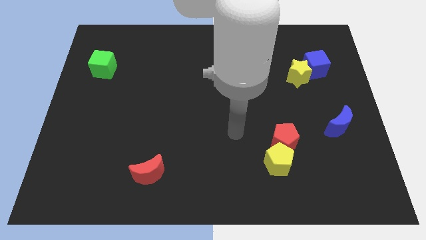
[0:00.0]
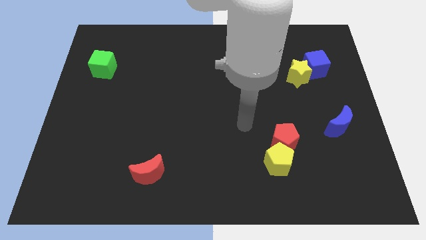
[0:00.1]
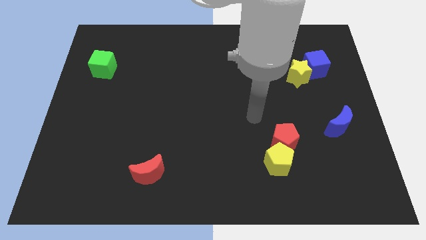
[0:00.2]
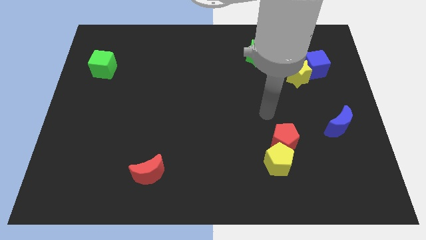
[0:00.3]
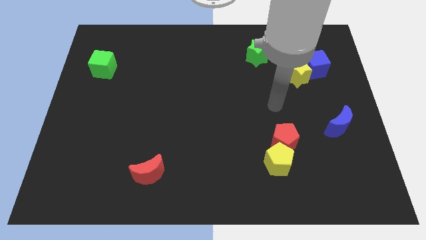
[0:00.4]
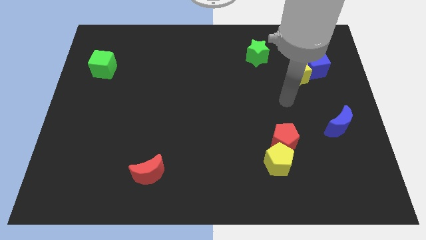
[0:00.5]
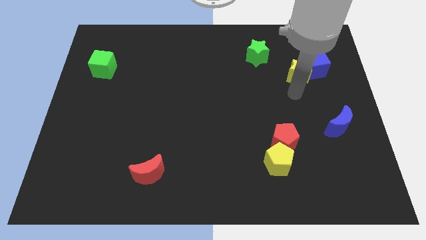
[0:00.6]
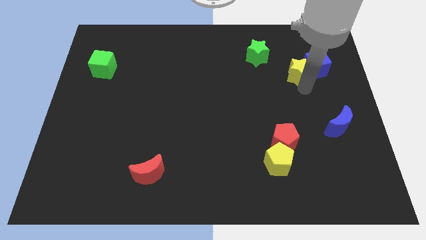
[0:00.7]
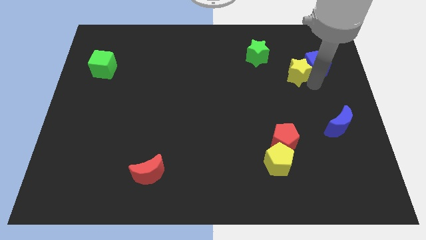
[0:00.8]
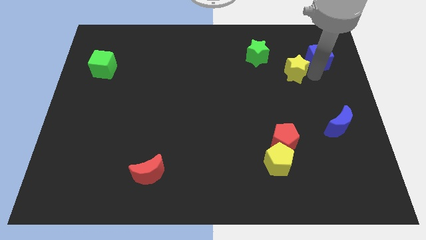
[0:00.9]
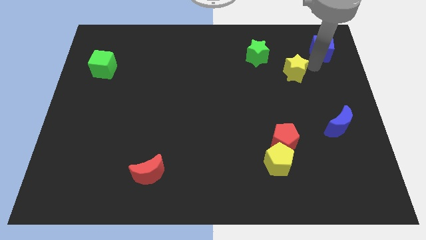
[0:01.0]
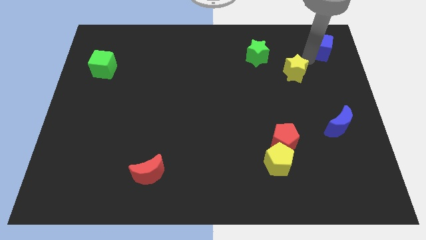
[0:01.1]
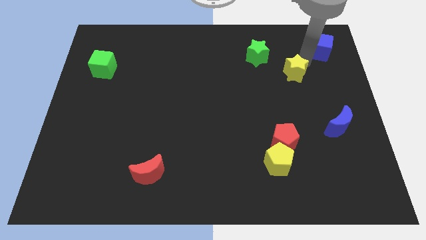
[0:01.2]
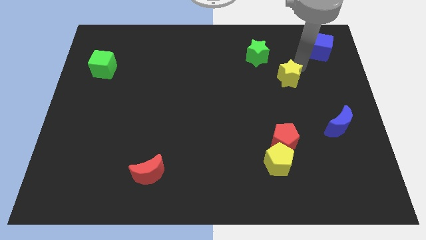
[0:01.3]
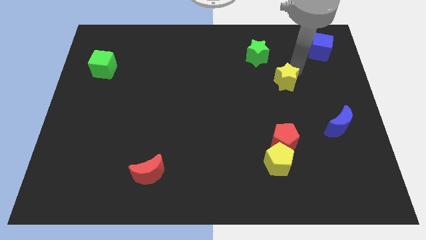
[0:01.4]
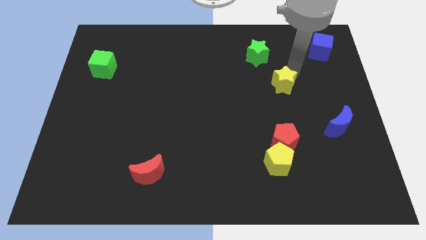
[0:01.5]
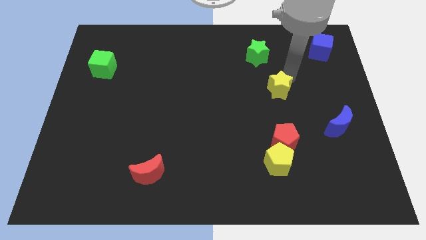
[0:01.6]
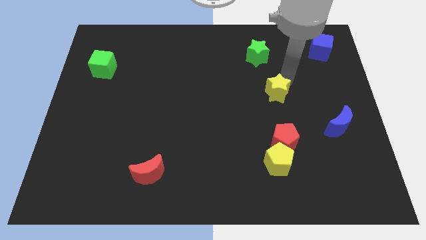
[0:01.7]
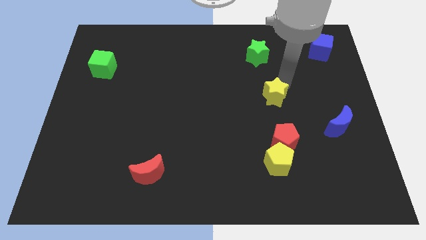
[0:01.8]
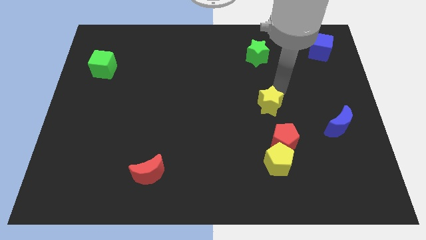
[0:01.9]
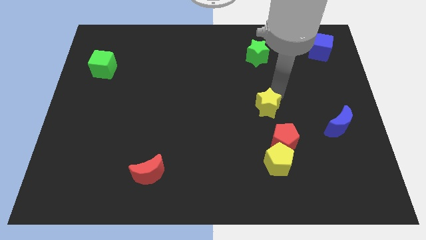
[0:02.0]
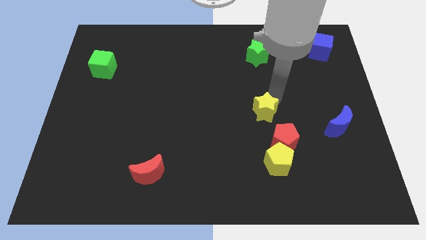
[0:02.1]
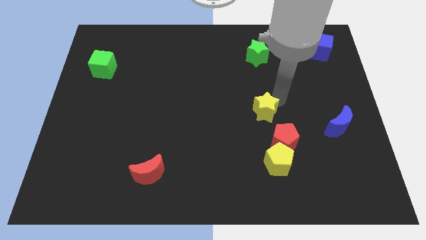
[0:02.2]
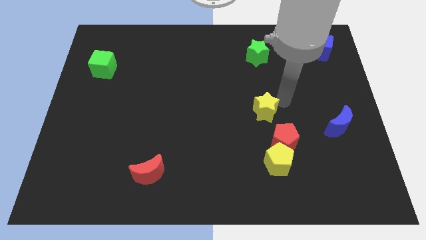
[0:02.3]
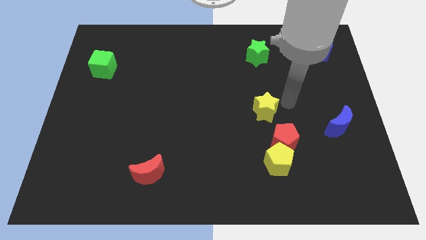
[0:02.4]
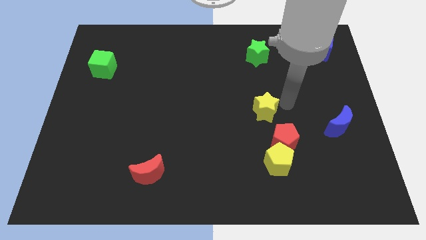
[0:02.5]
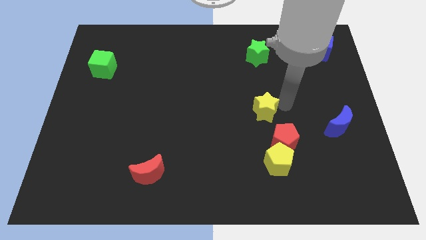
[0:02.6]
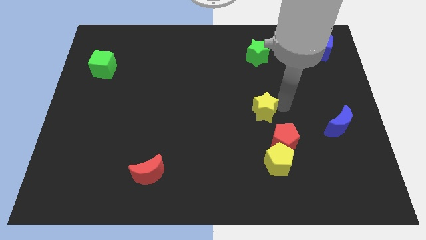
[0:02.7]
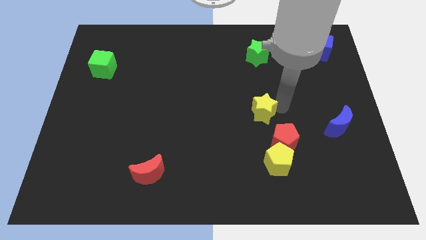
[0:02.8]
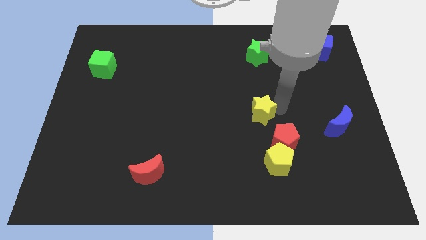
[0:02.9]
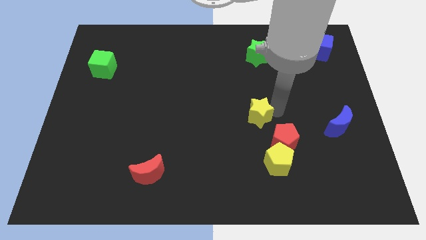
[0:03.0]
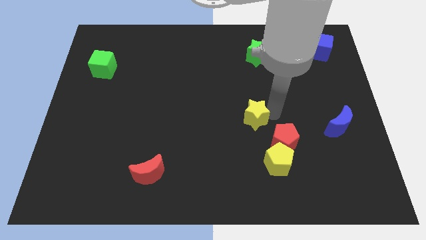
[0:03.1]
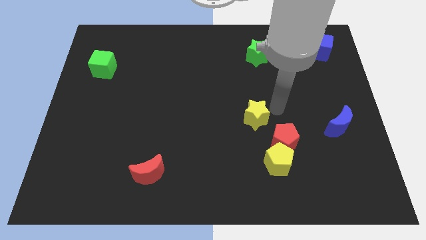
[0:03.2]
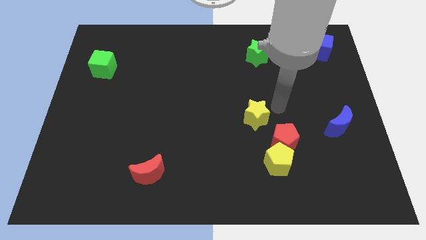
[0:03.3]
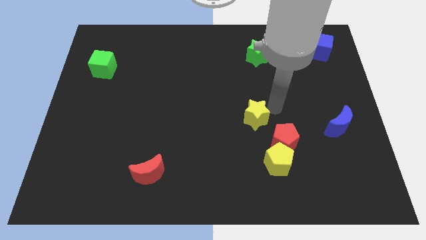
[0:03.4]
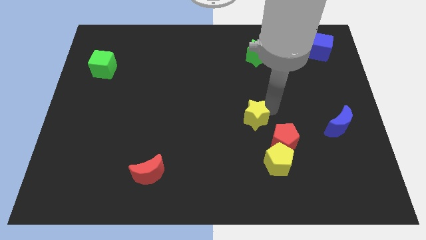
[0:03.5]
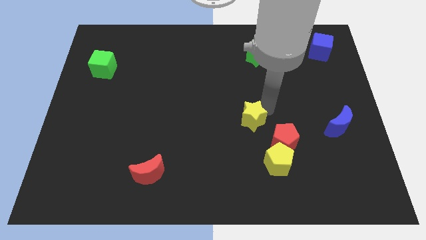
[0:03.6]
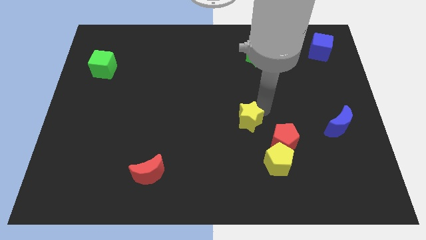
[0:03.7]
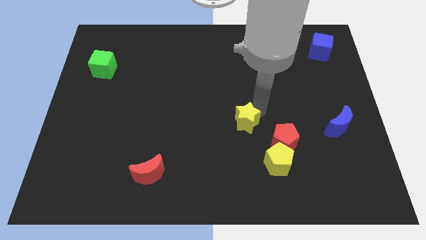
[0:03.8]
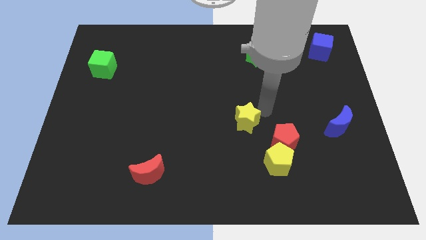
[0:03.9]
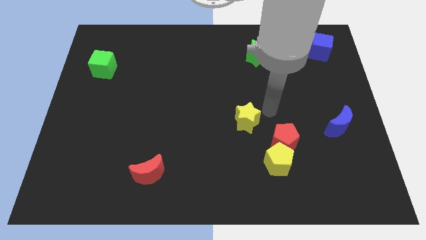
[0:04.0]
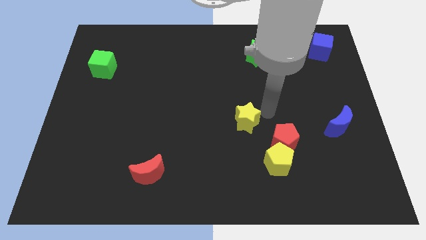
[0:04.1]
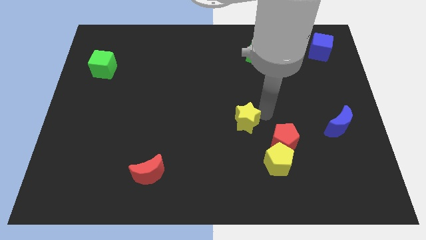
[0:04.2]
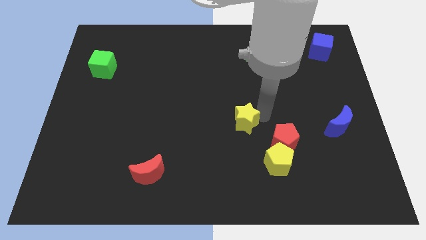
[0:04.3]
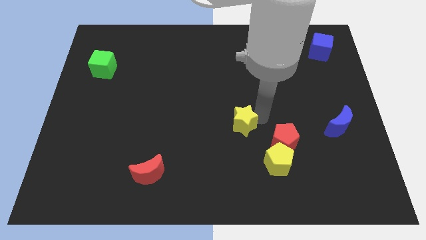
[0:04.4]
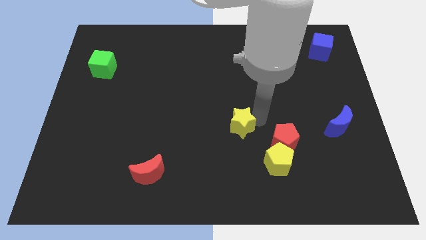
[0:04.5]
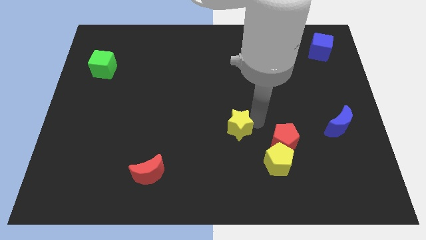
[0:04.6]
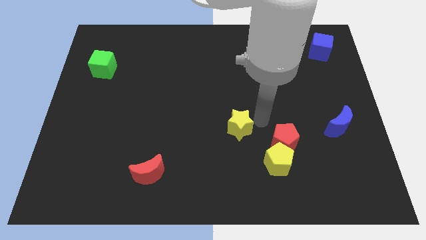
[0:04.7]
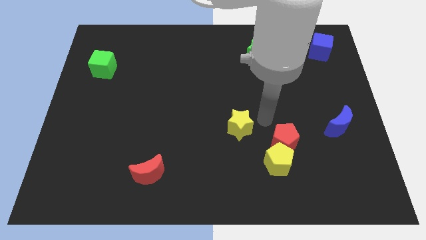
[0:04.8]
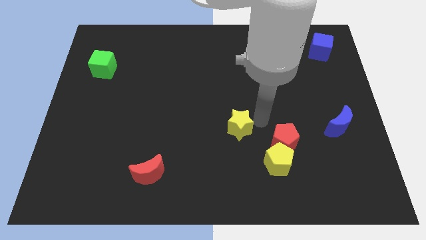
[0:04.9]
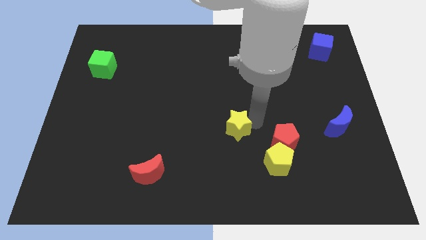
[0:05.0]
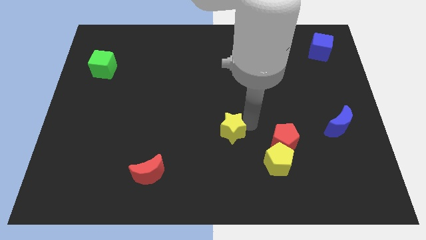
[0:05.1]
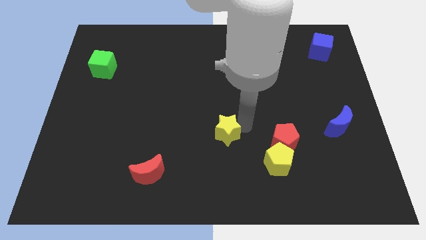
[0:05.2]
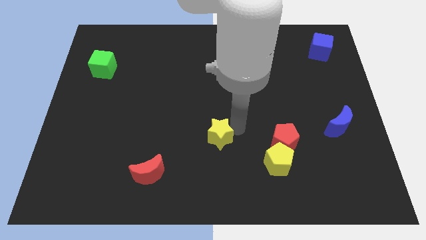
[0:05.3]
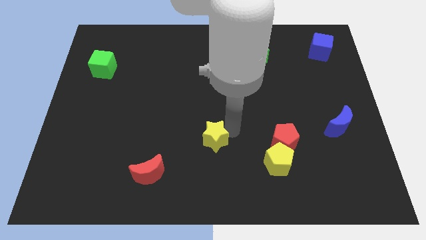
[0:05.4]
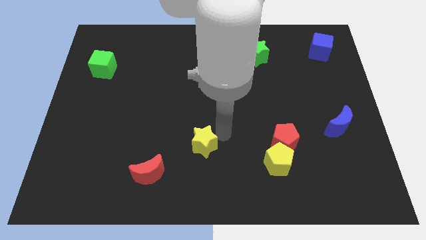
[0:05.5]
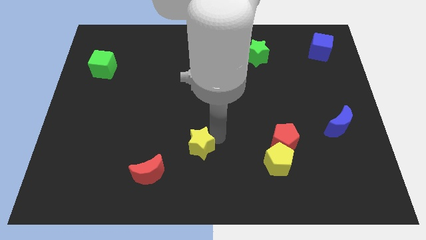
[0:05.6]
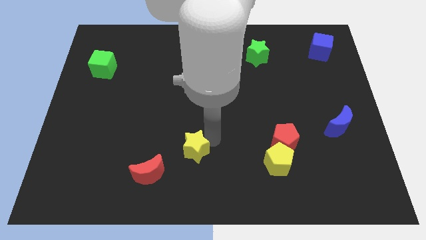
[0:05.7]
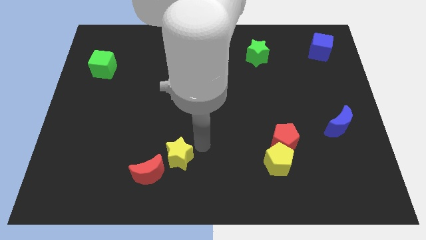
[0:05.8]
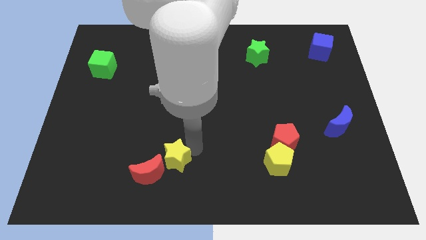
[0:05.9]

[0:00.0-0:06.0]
slide the yellow star to the red moon

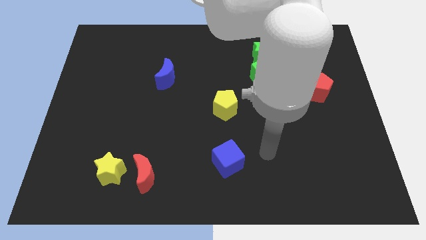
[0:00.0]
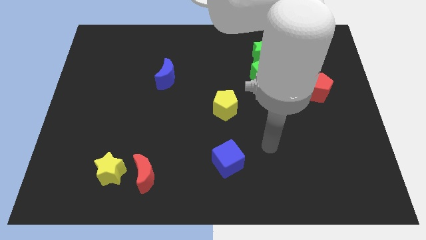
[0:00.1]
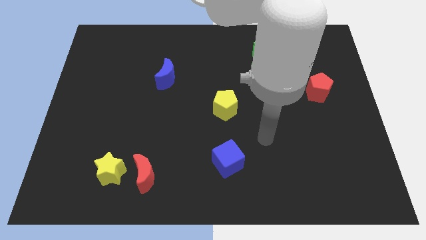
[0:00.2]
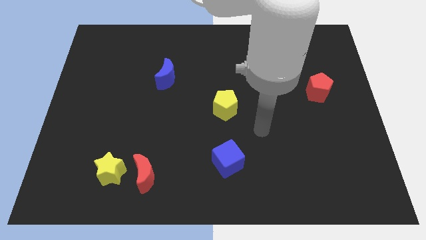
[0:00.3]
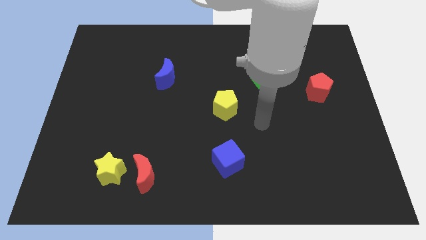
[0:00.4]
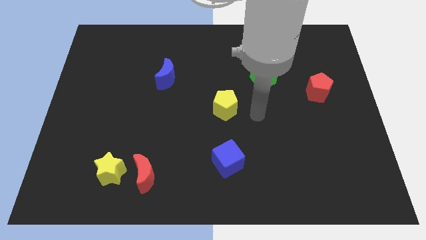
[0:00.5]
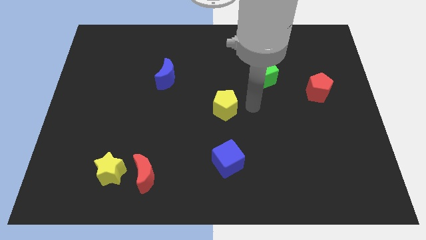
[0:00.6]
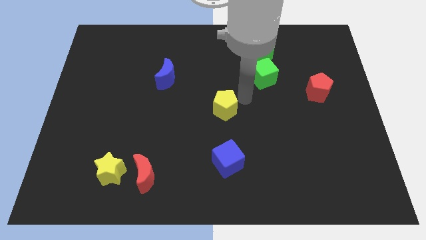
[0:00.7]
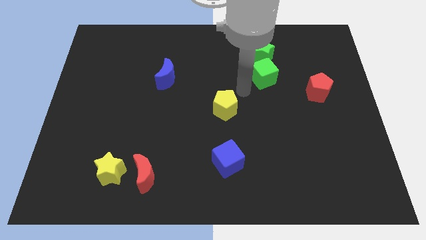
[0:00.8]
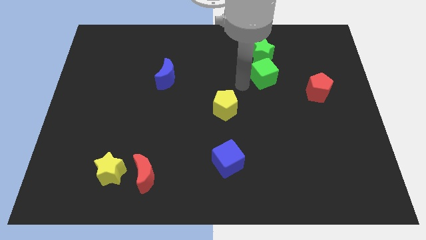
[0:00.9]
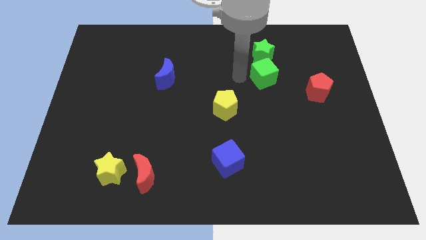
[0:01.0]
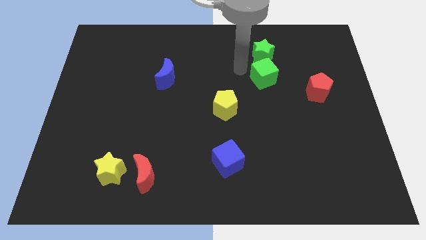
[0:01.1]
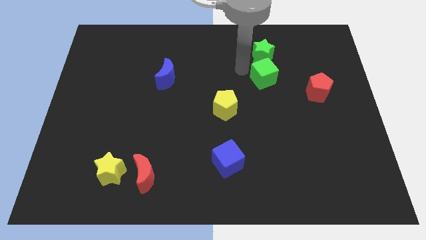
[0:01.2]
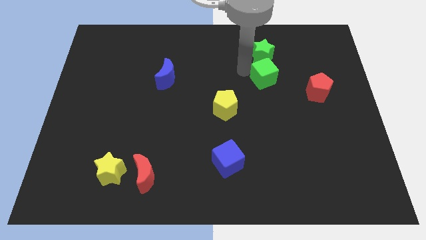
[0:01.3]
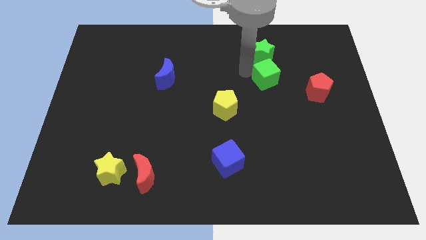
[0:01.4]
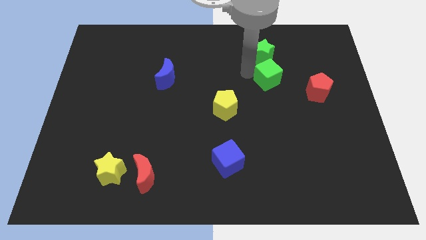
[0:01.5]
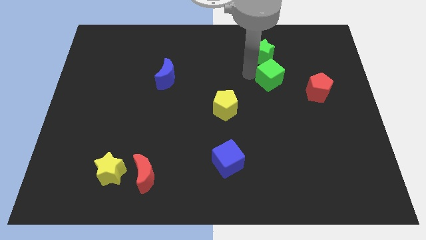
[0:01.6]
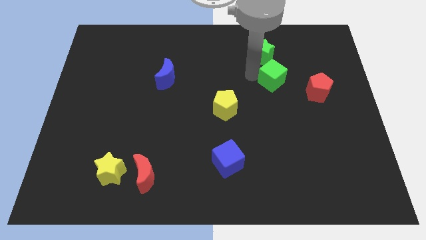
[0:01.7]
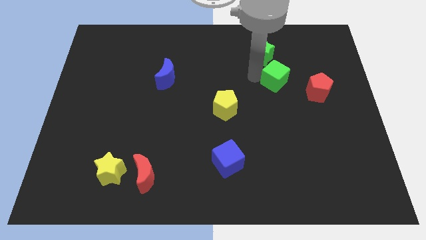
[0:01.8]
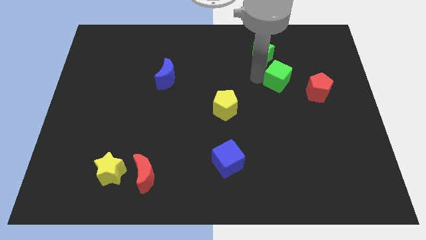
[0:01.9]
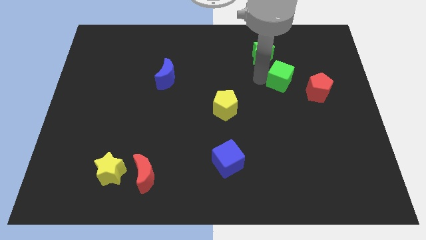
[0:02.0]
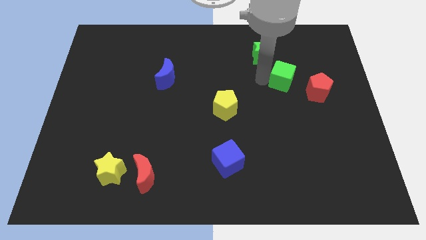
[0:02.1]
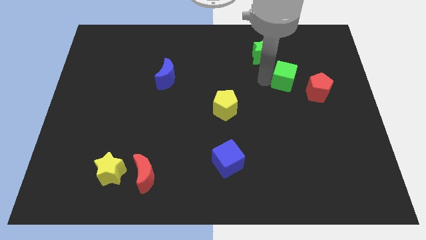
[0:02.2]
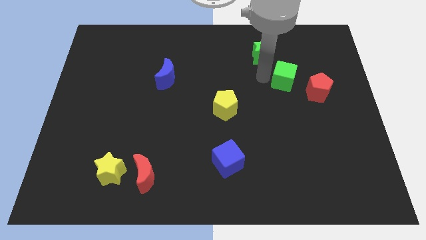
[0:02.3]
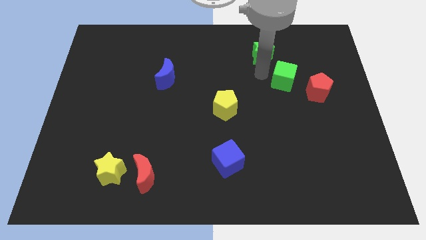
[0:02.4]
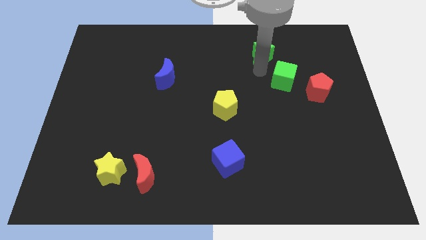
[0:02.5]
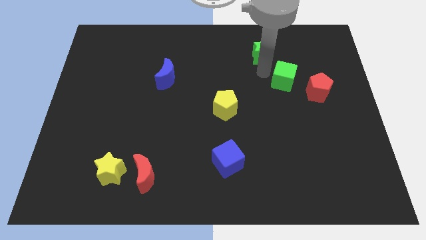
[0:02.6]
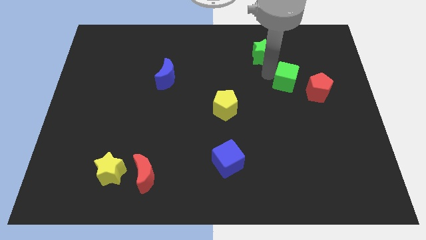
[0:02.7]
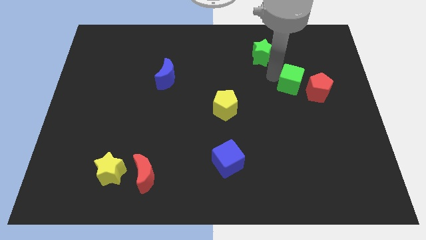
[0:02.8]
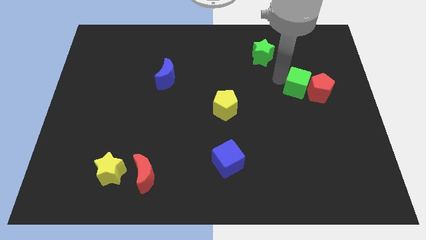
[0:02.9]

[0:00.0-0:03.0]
slide the green cube close to the red pentagon
